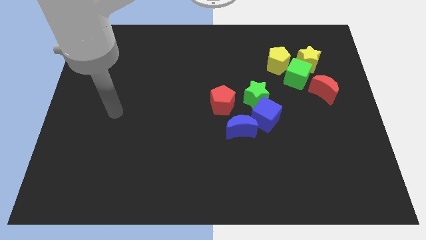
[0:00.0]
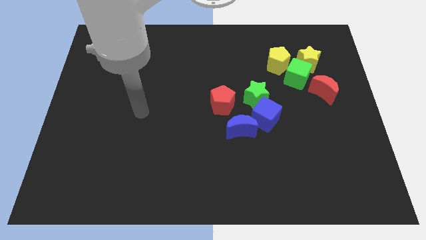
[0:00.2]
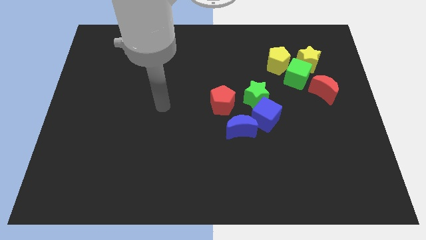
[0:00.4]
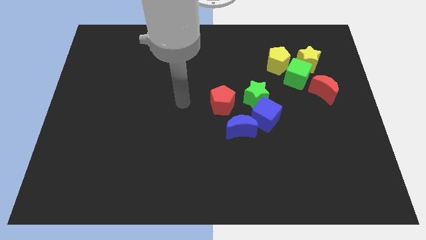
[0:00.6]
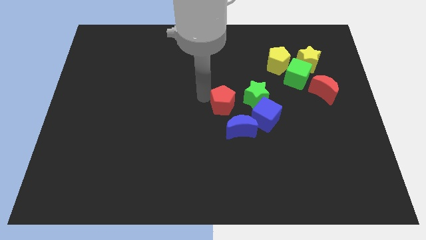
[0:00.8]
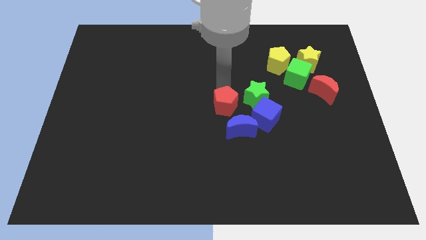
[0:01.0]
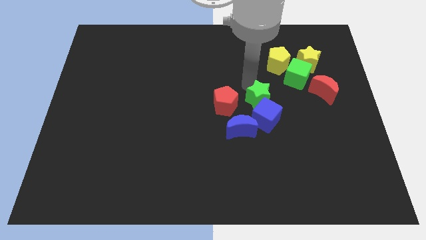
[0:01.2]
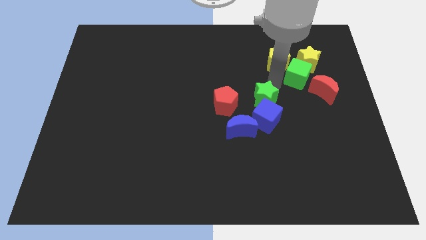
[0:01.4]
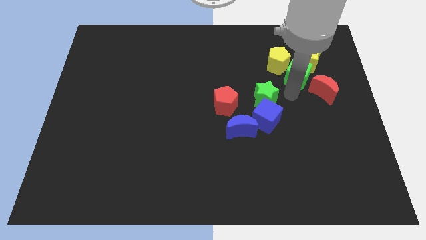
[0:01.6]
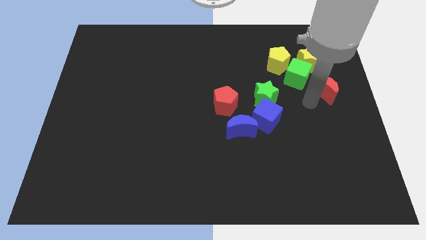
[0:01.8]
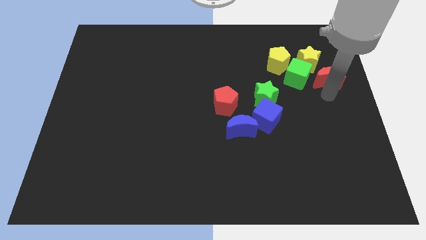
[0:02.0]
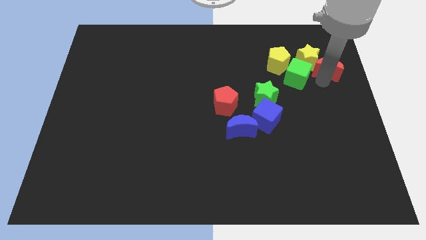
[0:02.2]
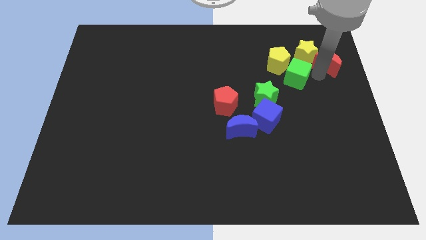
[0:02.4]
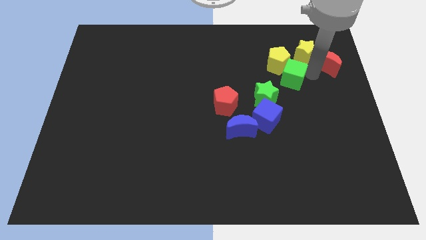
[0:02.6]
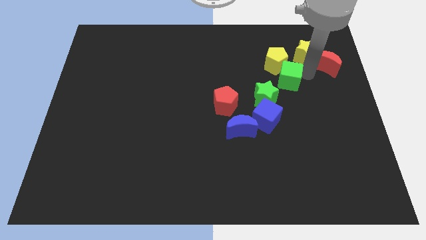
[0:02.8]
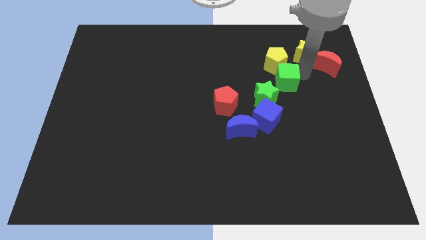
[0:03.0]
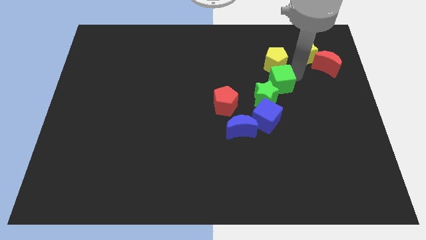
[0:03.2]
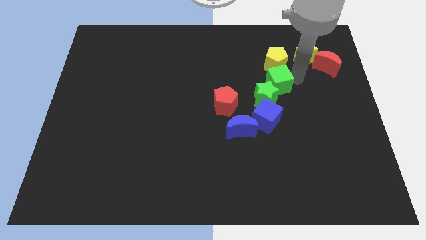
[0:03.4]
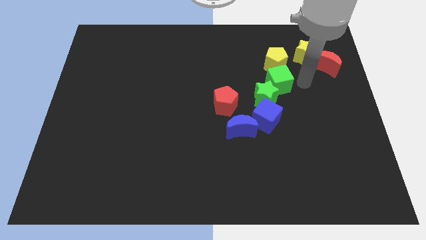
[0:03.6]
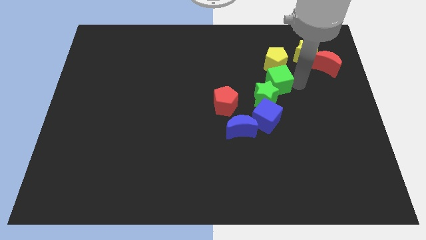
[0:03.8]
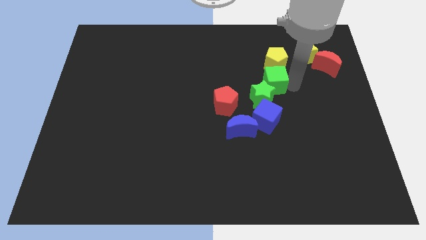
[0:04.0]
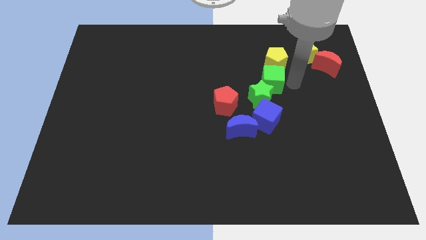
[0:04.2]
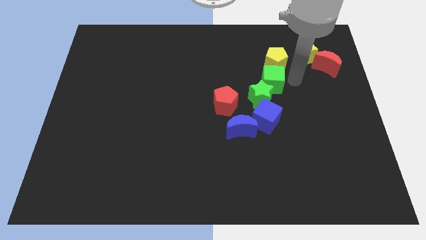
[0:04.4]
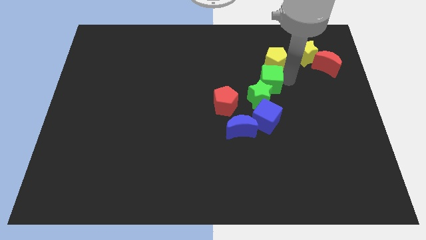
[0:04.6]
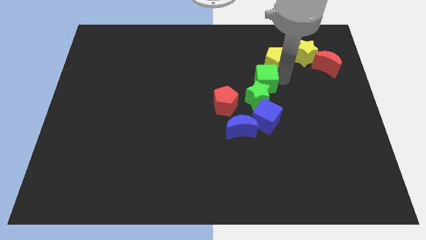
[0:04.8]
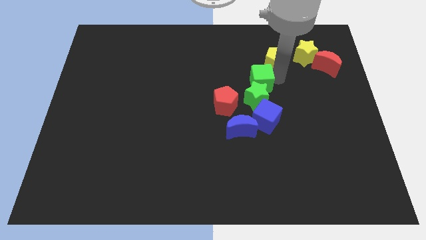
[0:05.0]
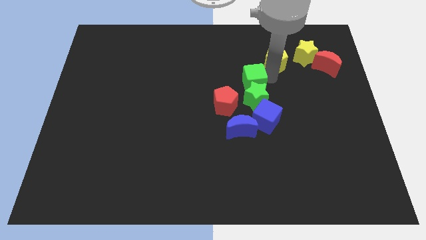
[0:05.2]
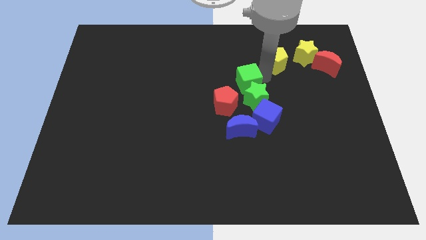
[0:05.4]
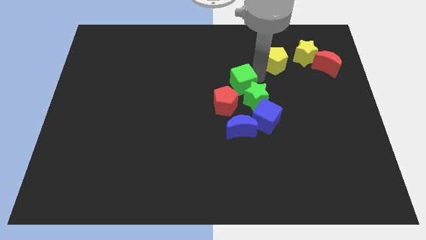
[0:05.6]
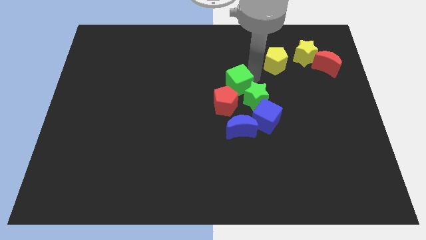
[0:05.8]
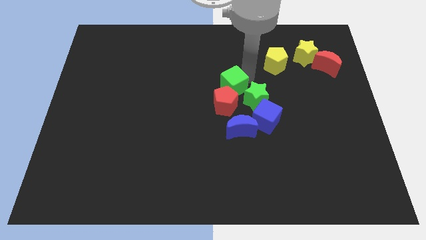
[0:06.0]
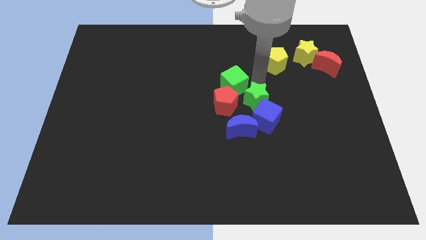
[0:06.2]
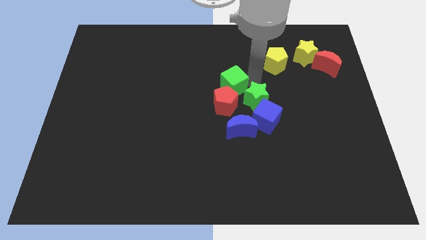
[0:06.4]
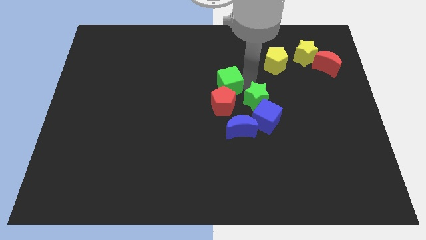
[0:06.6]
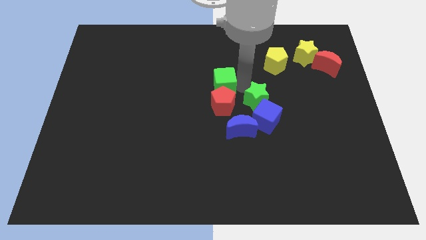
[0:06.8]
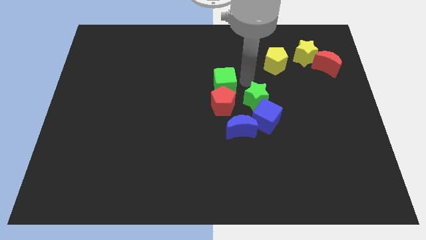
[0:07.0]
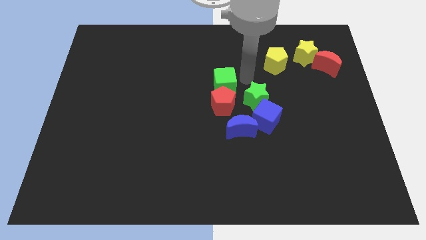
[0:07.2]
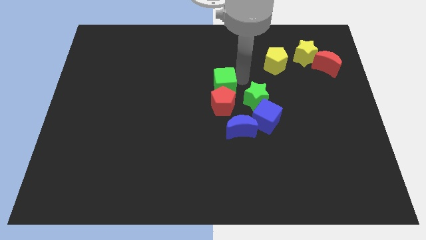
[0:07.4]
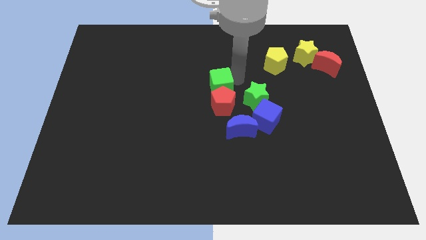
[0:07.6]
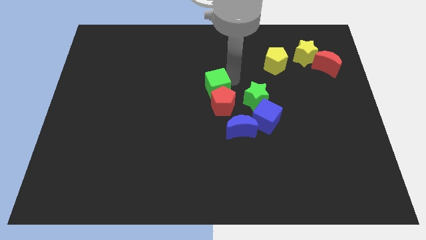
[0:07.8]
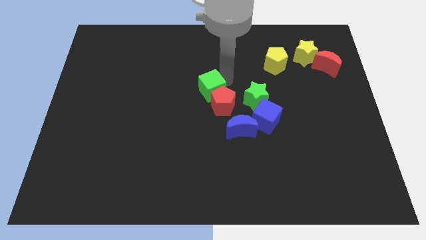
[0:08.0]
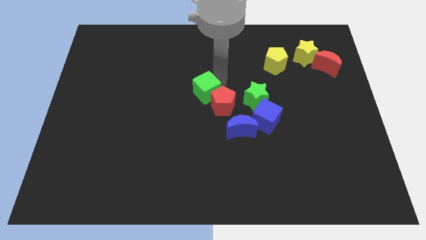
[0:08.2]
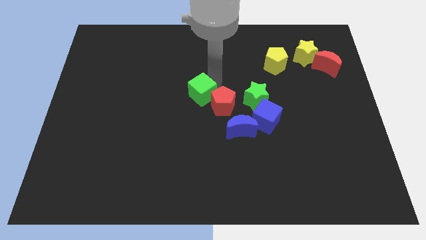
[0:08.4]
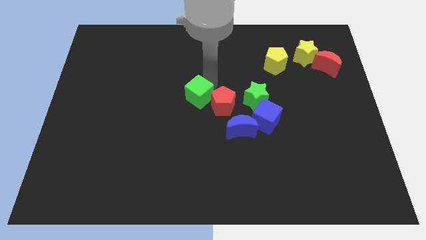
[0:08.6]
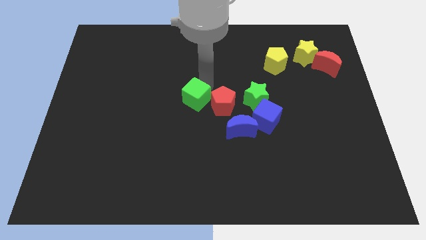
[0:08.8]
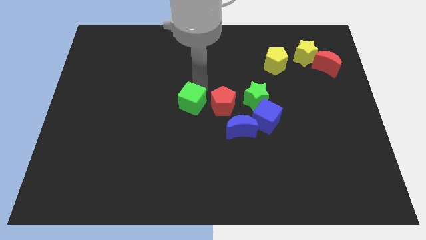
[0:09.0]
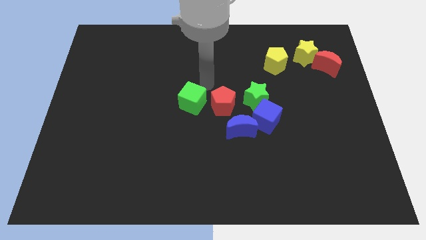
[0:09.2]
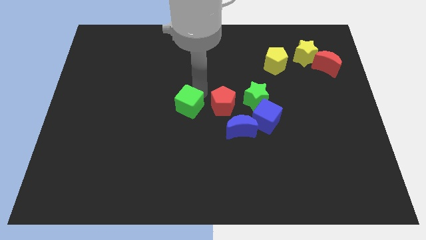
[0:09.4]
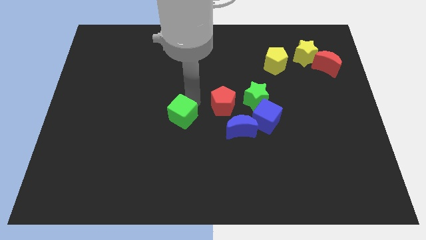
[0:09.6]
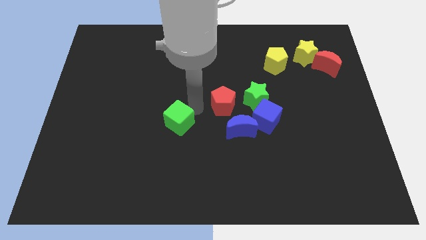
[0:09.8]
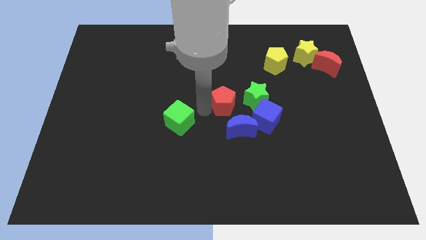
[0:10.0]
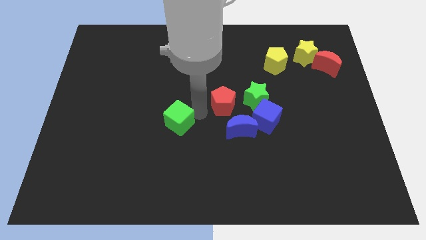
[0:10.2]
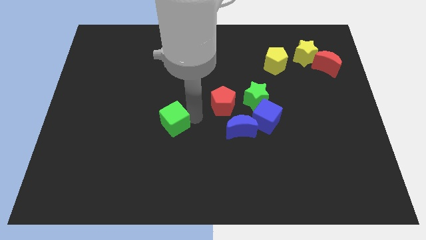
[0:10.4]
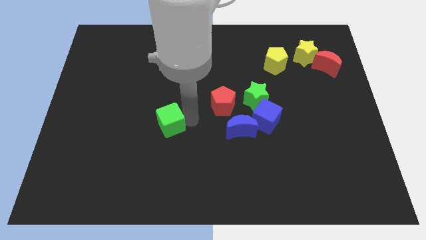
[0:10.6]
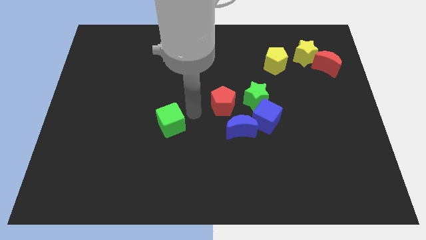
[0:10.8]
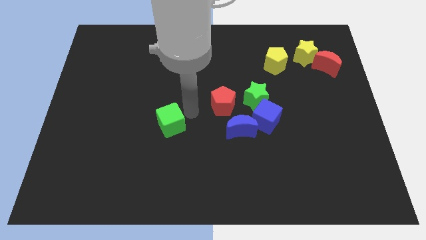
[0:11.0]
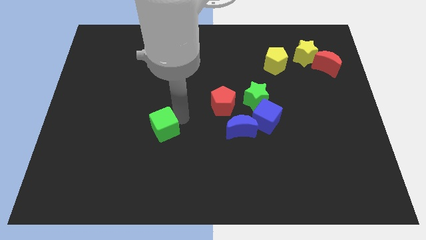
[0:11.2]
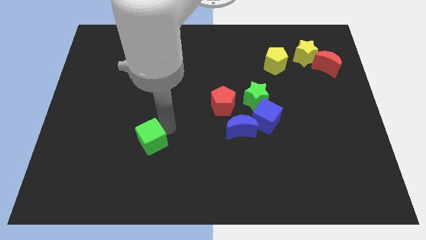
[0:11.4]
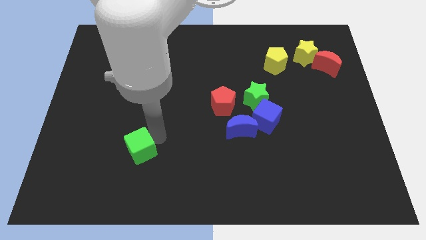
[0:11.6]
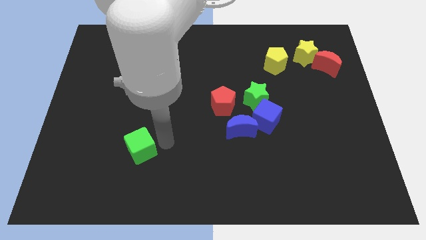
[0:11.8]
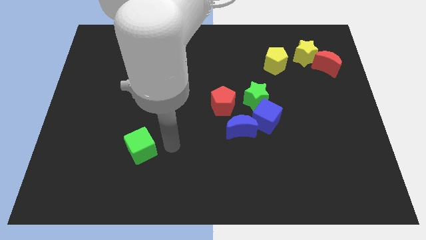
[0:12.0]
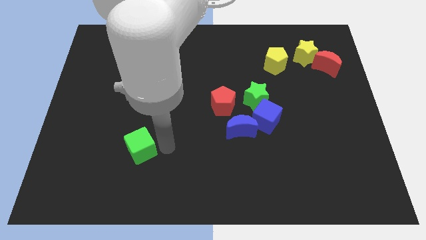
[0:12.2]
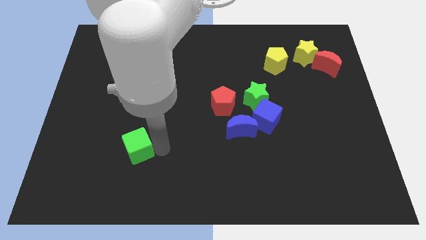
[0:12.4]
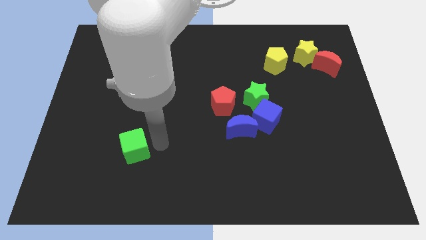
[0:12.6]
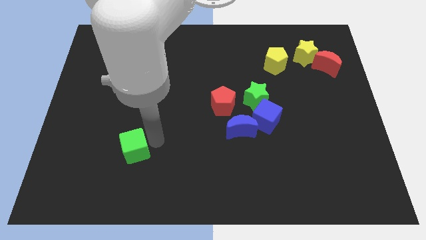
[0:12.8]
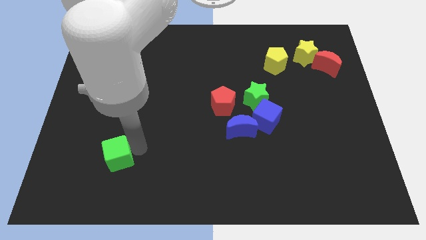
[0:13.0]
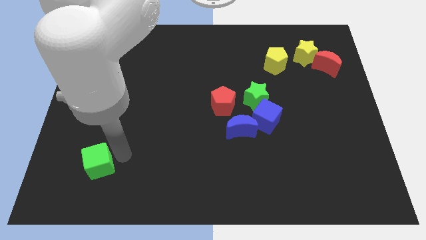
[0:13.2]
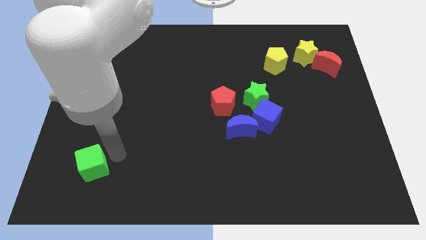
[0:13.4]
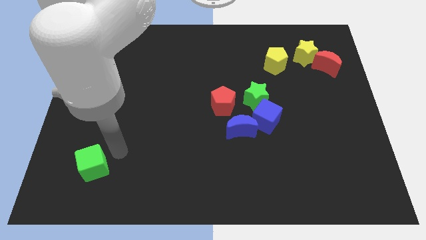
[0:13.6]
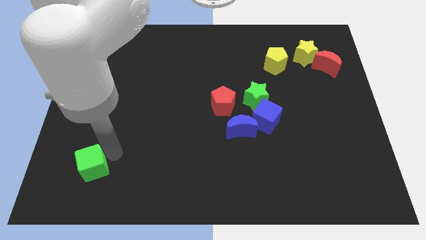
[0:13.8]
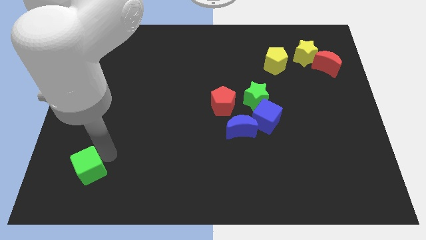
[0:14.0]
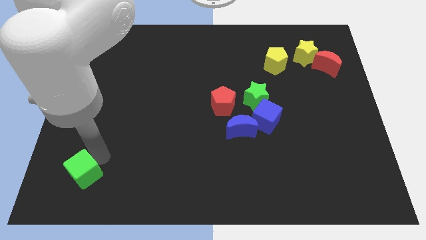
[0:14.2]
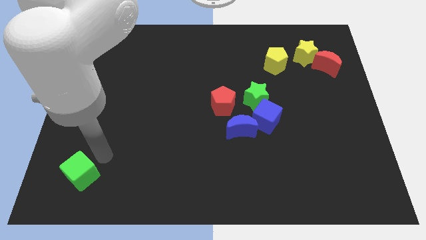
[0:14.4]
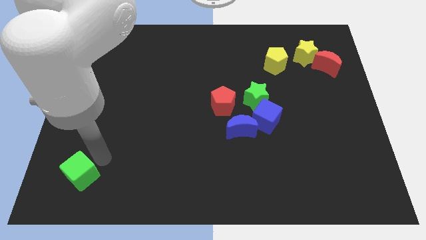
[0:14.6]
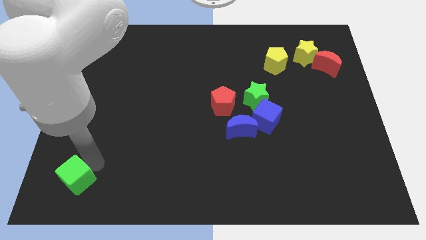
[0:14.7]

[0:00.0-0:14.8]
slide the green cube to the bottom left
